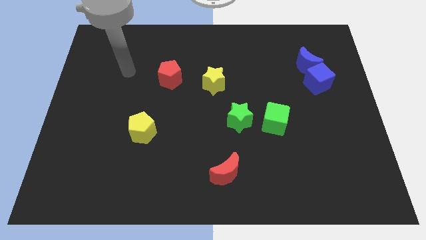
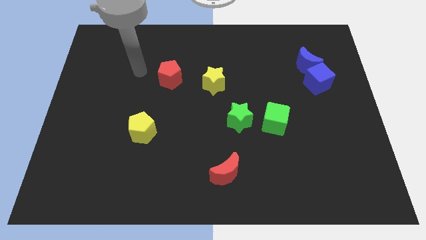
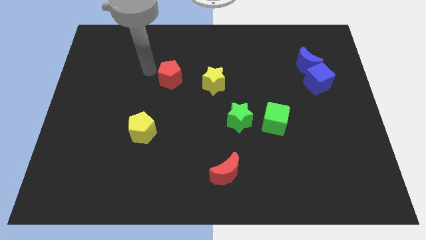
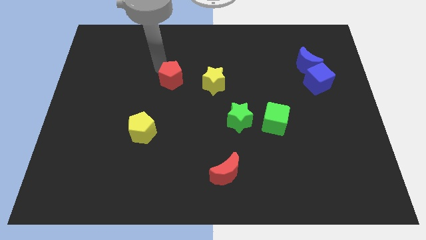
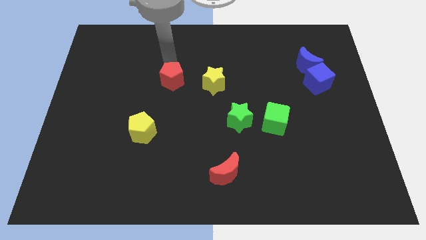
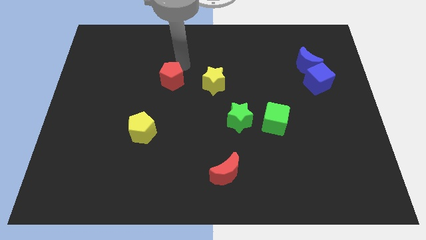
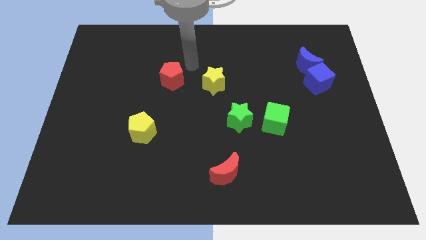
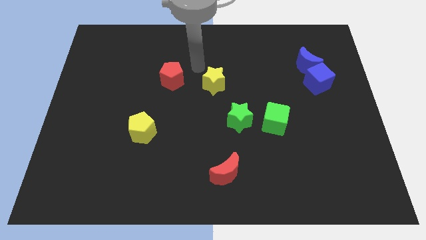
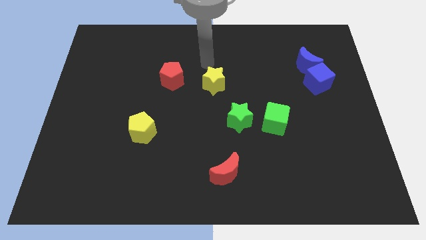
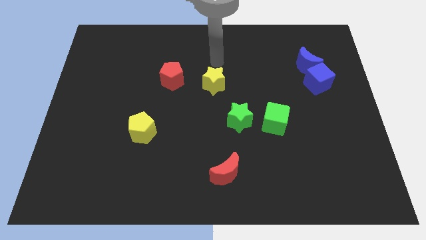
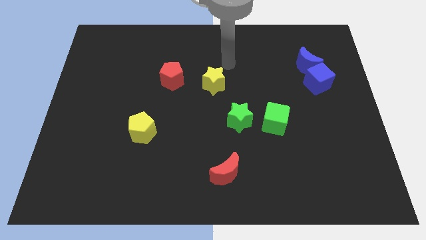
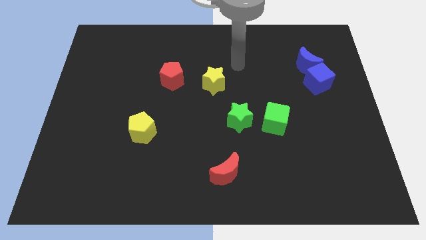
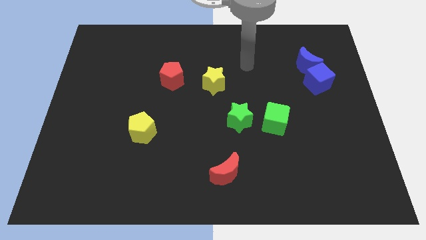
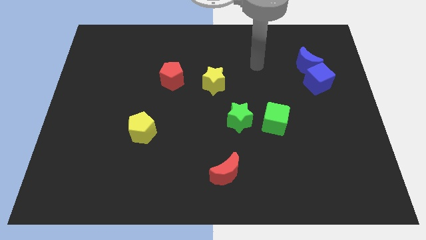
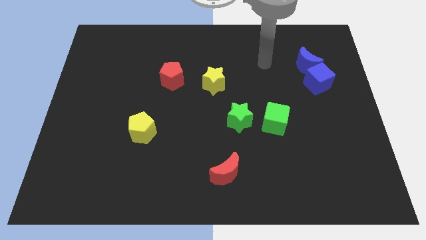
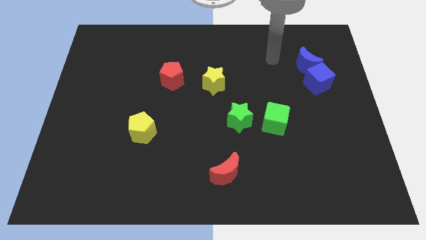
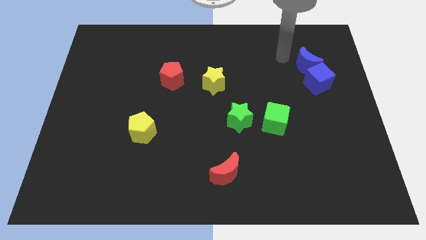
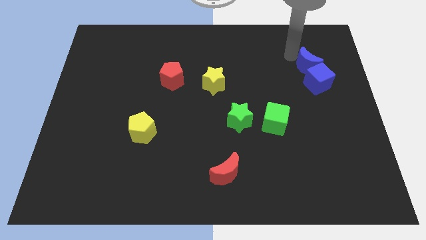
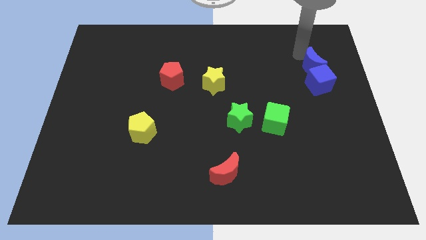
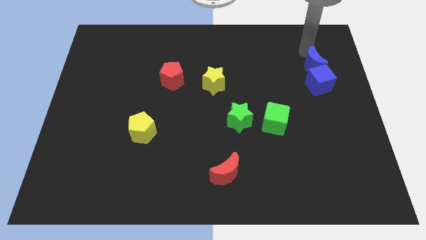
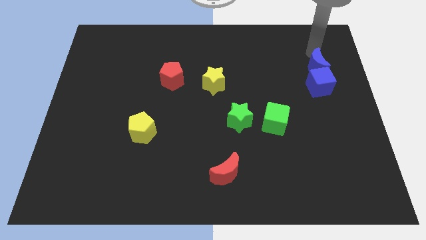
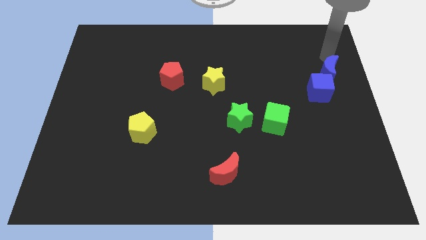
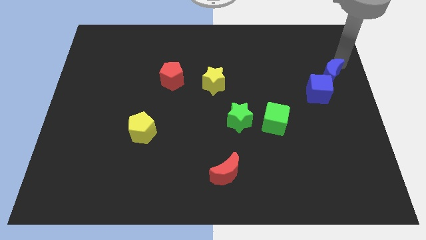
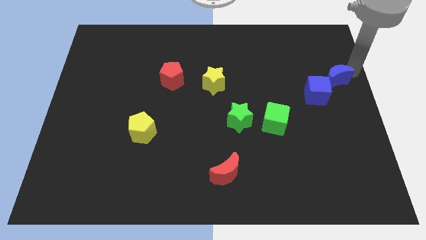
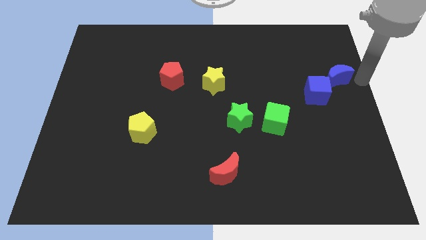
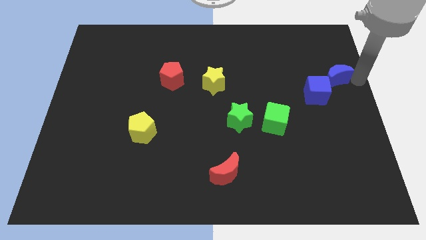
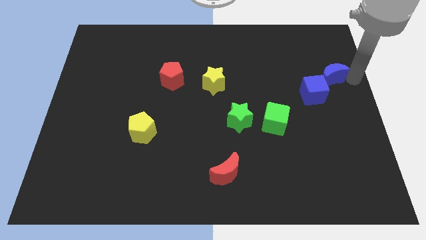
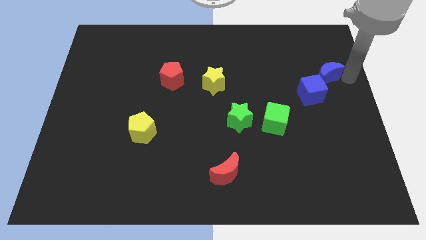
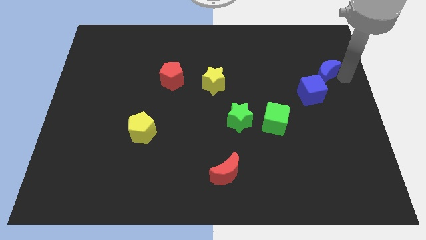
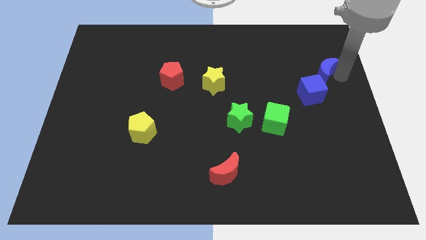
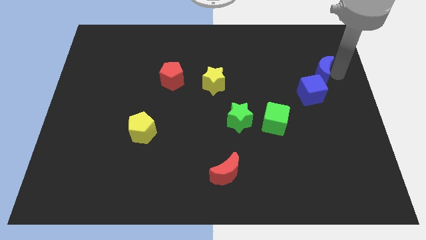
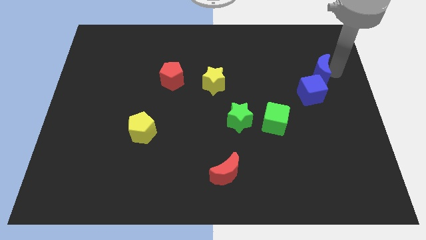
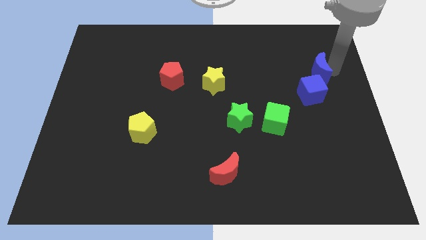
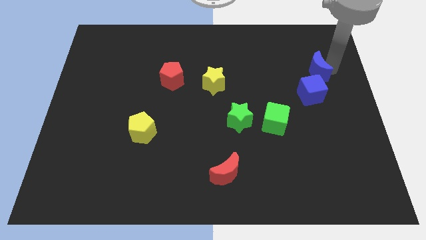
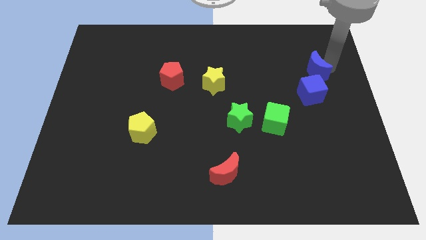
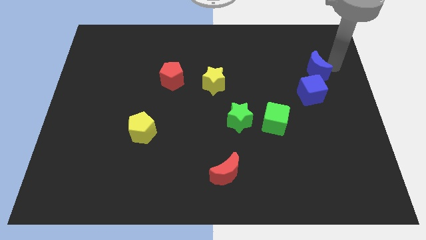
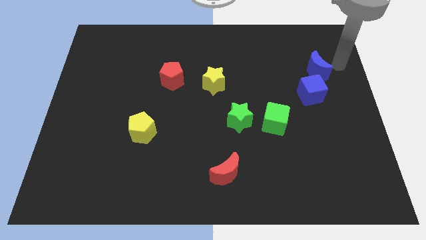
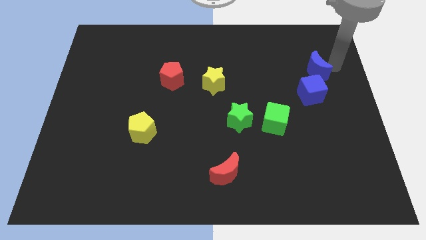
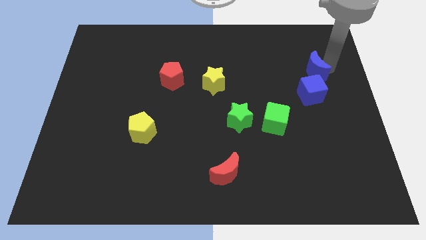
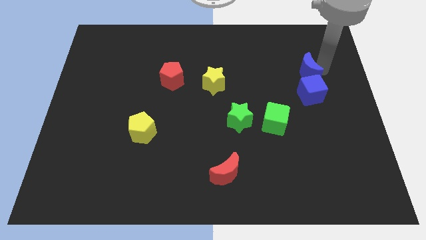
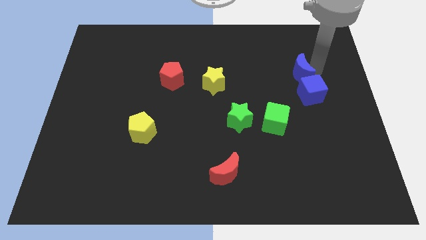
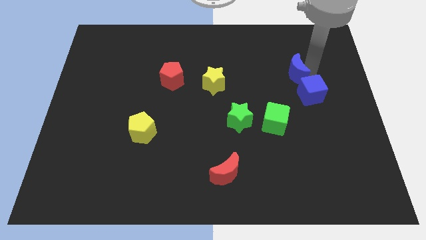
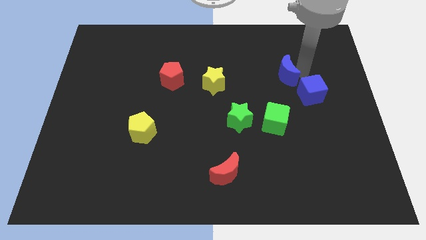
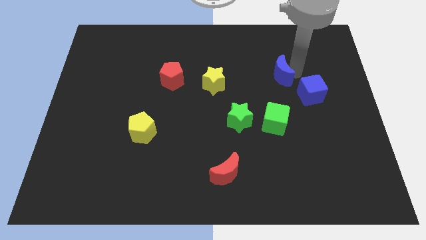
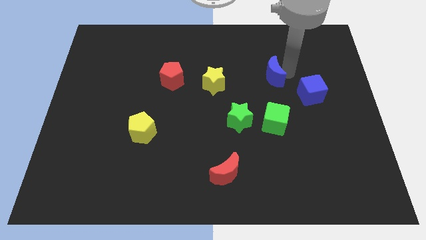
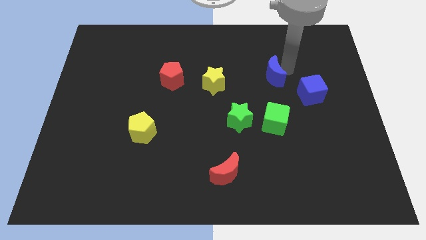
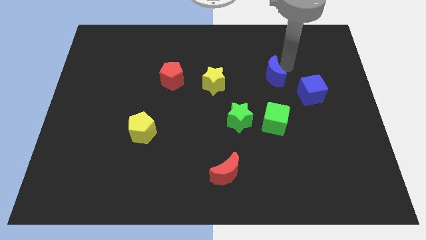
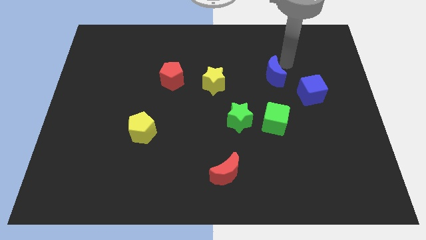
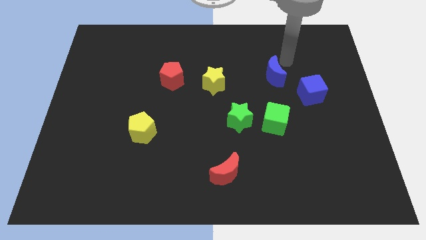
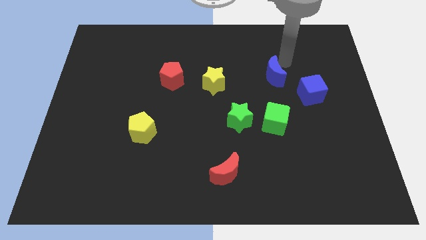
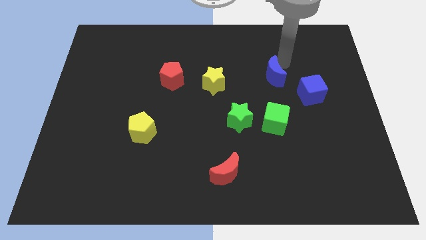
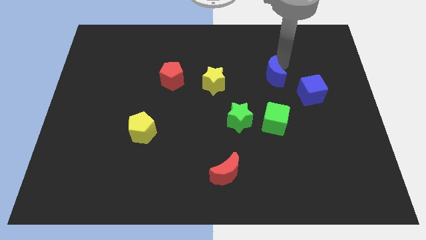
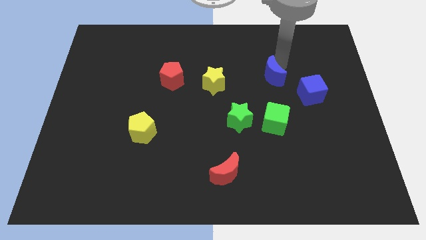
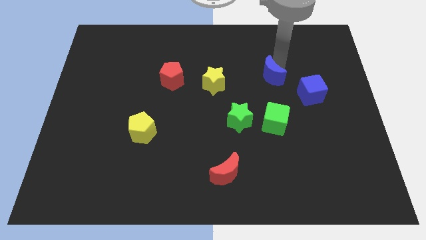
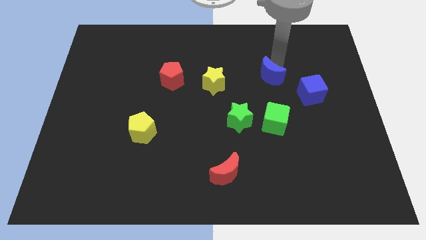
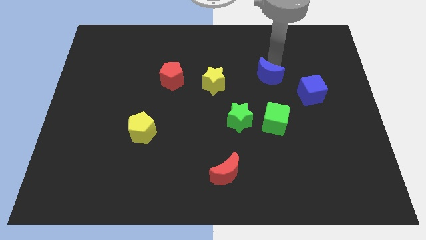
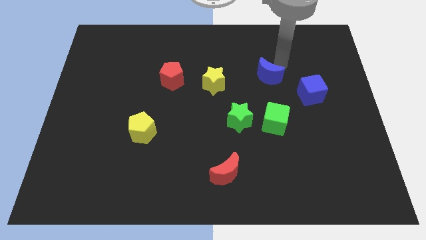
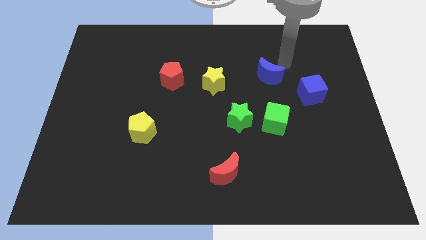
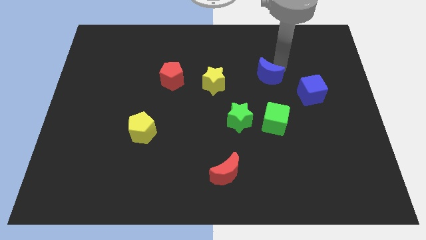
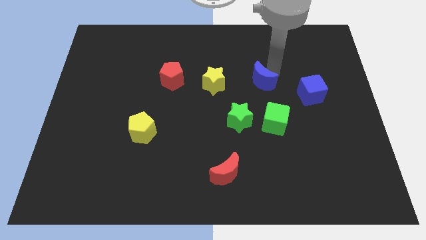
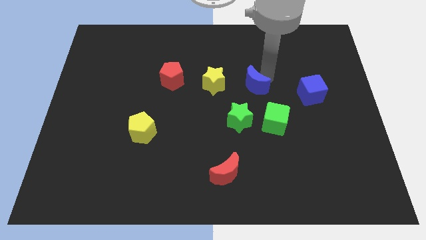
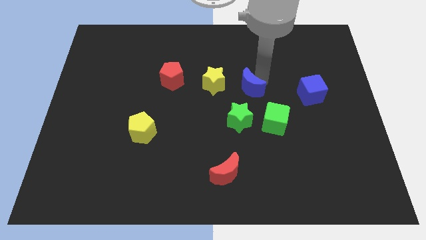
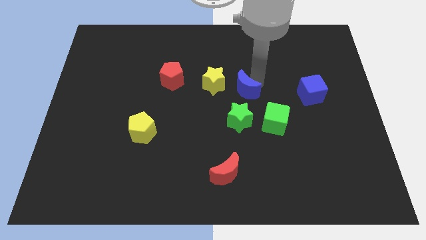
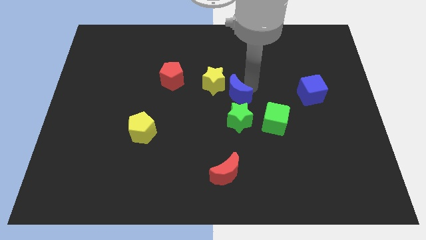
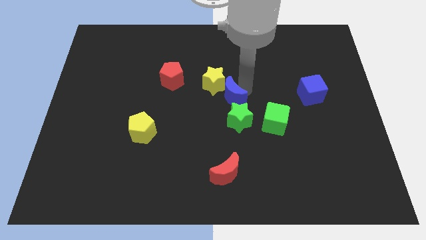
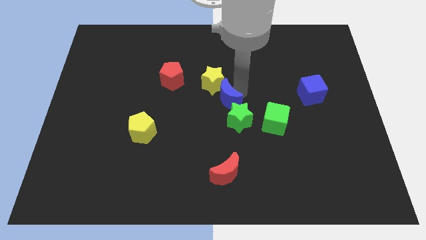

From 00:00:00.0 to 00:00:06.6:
push the blue moon downwards and left diagonally

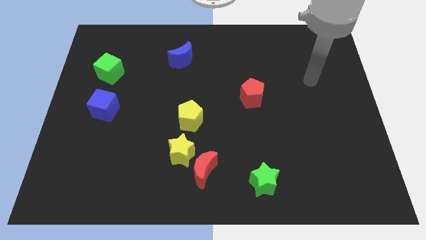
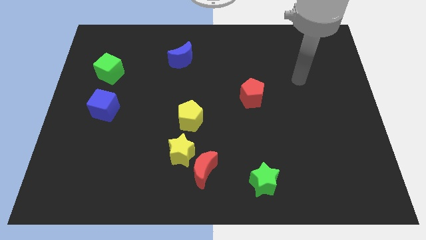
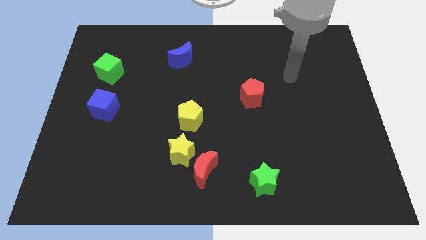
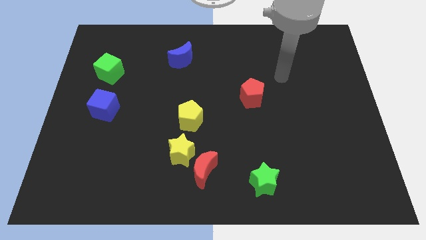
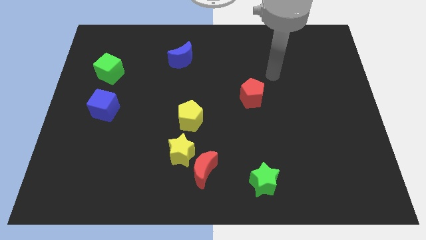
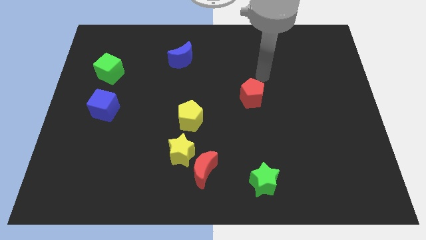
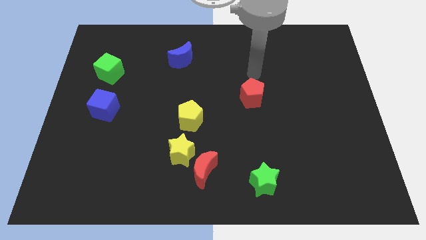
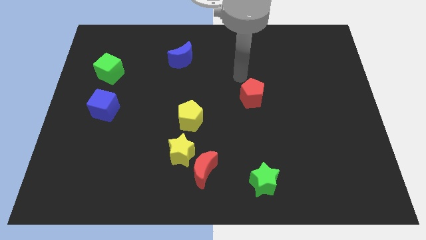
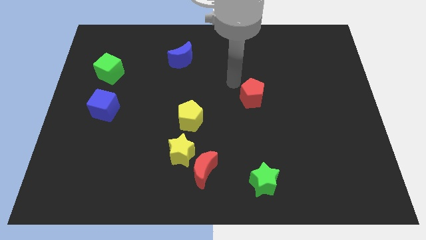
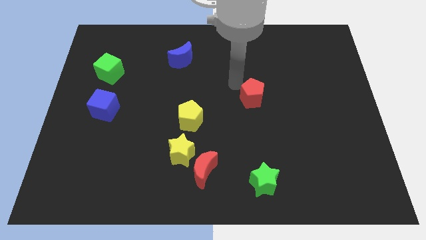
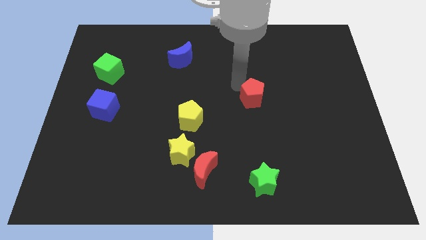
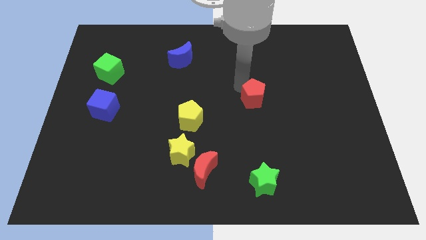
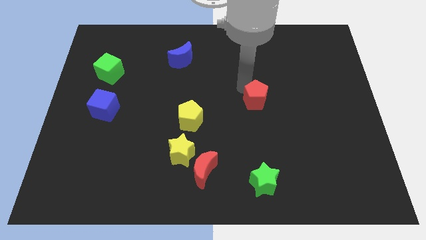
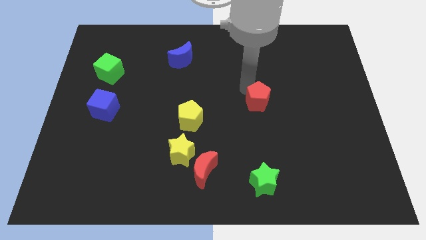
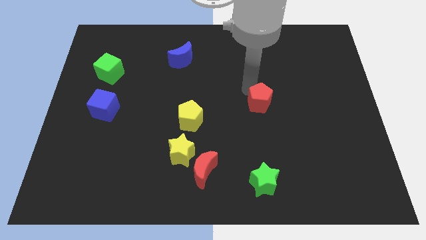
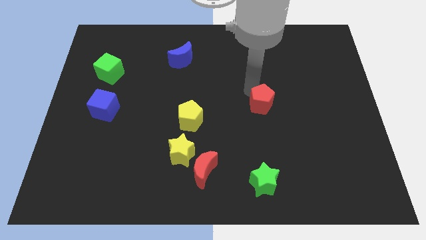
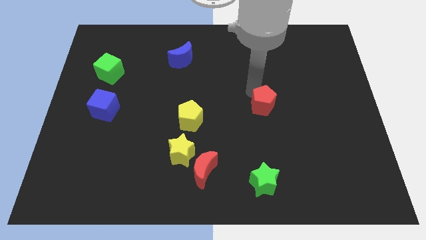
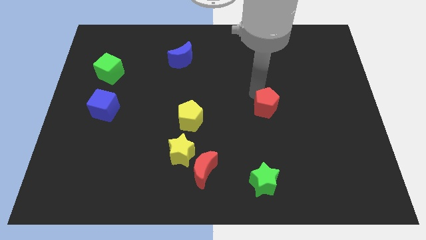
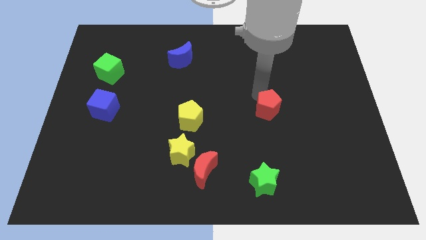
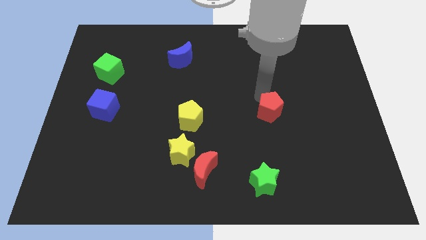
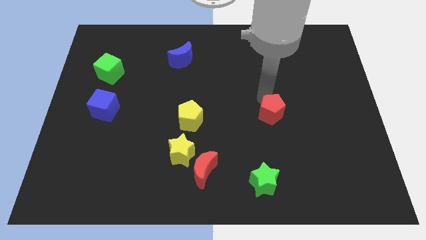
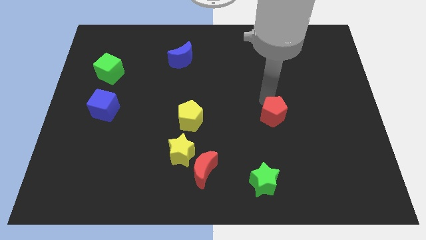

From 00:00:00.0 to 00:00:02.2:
move the red pentagon downwards and to the right diagonally a little bit
